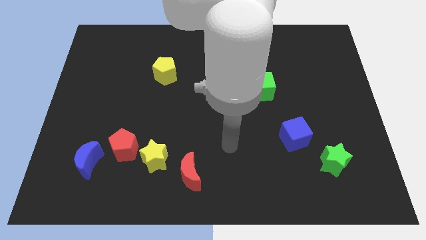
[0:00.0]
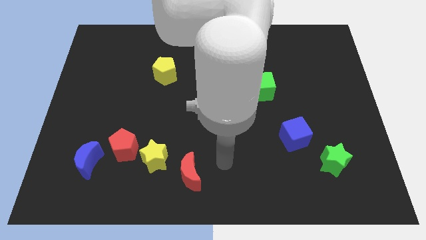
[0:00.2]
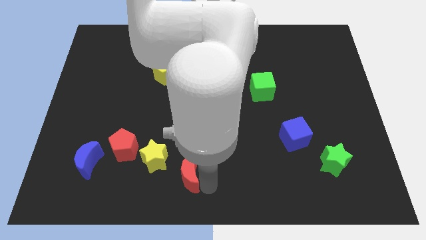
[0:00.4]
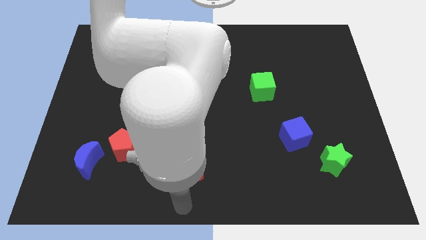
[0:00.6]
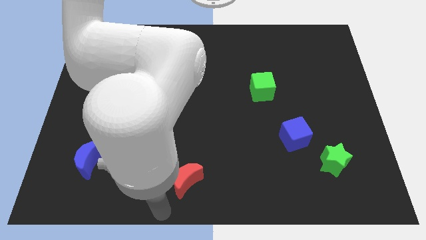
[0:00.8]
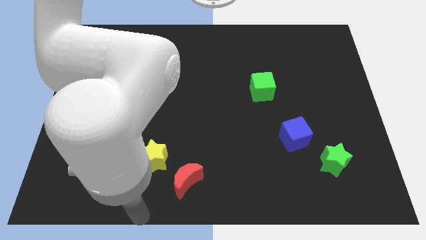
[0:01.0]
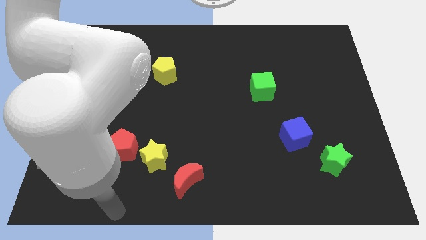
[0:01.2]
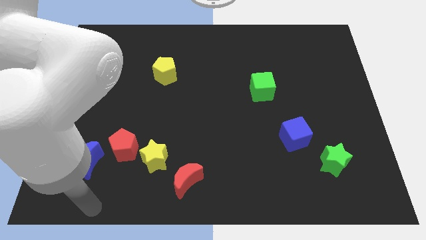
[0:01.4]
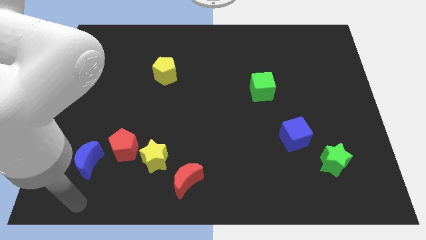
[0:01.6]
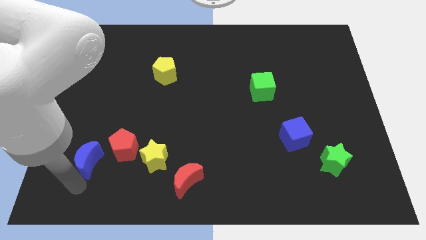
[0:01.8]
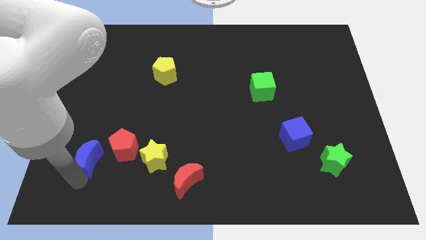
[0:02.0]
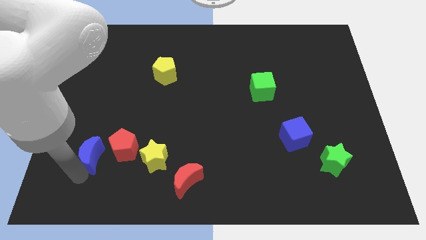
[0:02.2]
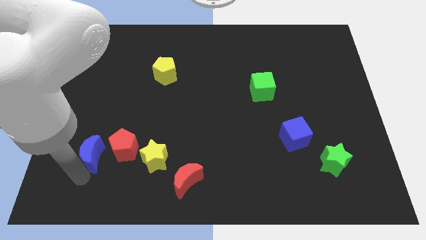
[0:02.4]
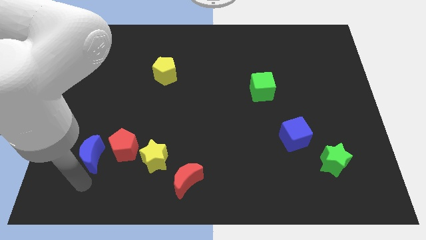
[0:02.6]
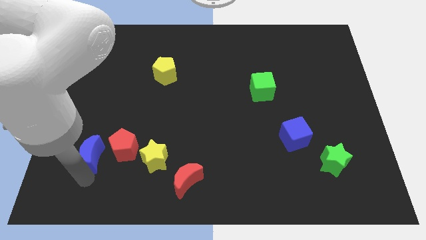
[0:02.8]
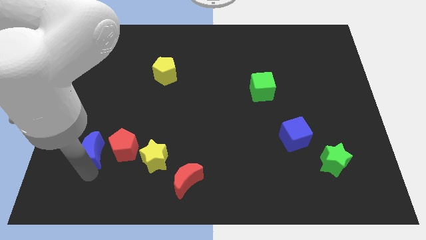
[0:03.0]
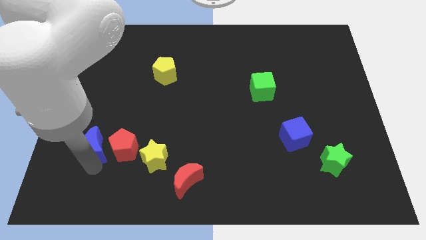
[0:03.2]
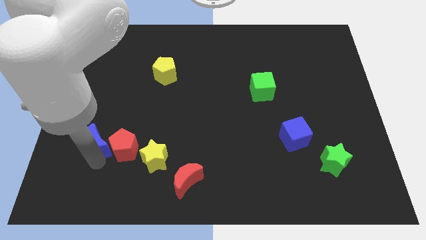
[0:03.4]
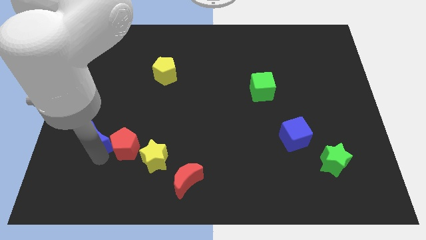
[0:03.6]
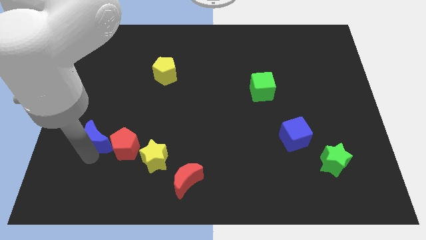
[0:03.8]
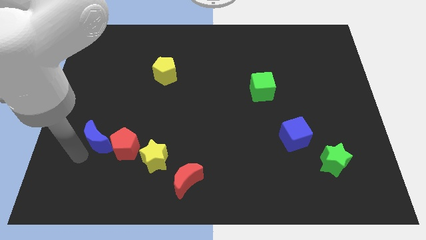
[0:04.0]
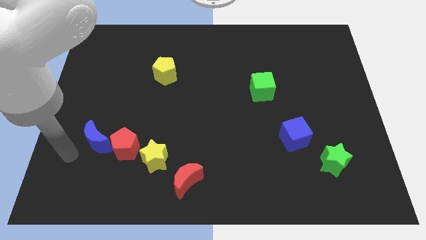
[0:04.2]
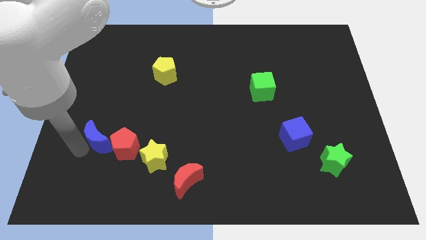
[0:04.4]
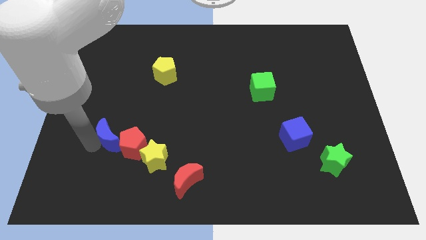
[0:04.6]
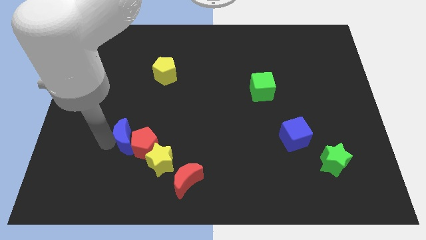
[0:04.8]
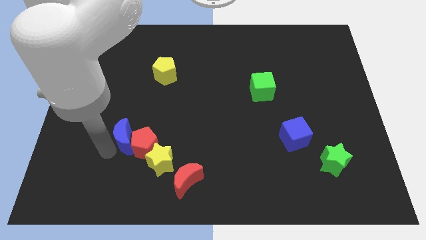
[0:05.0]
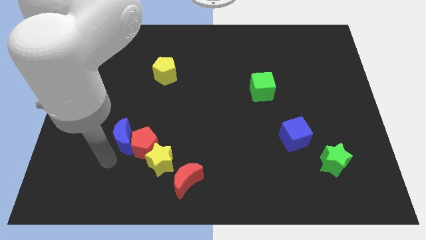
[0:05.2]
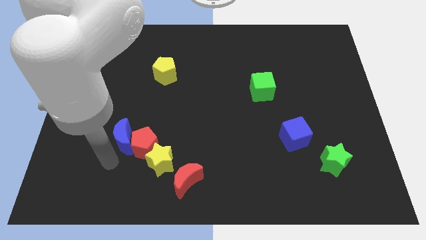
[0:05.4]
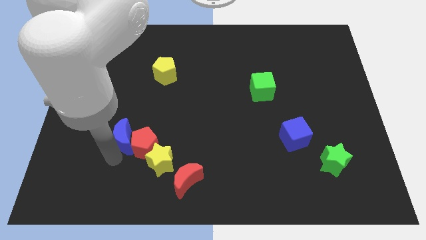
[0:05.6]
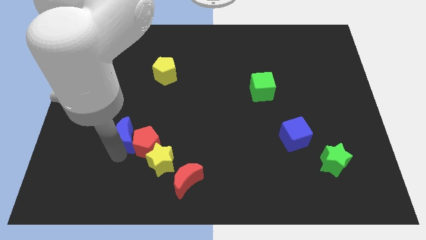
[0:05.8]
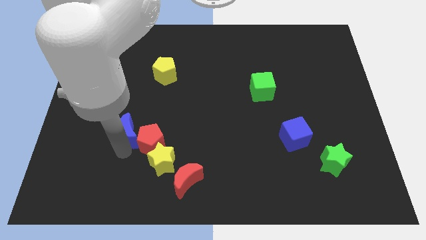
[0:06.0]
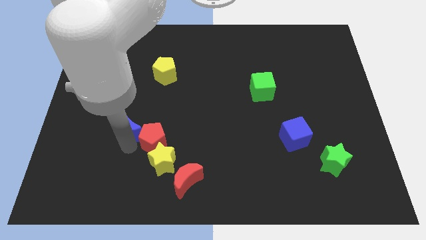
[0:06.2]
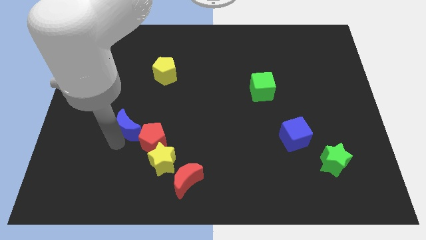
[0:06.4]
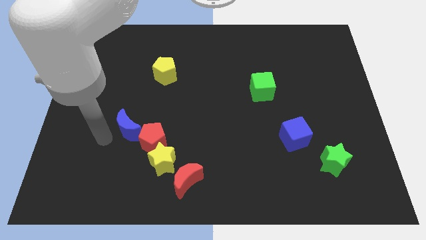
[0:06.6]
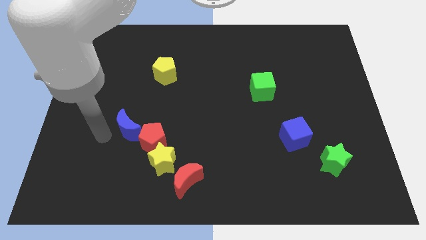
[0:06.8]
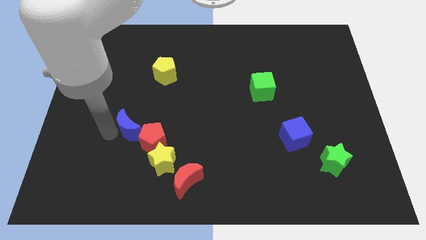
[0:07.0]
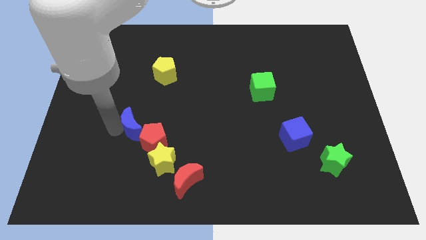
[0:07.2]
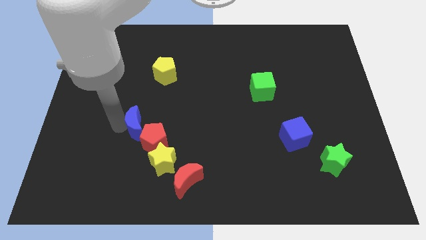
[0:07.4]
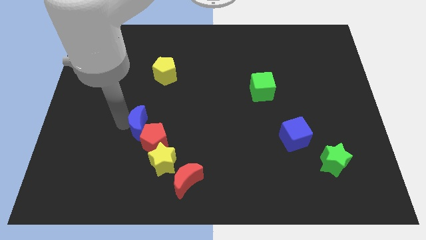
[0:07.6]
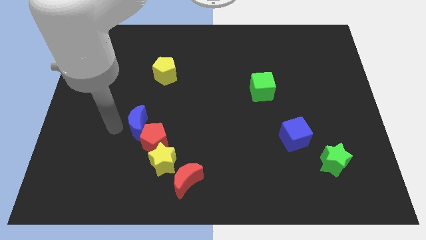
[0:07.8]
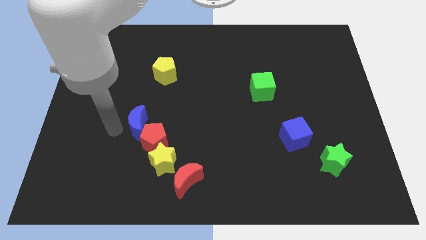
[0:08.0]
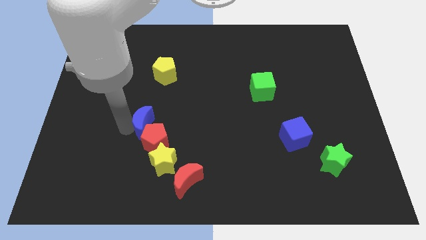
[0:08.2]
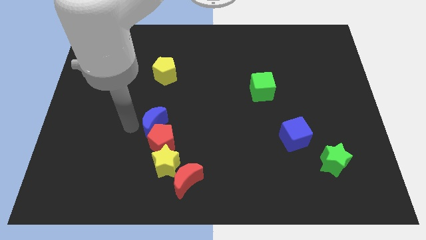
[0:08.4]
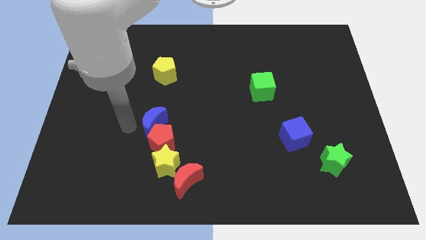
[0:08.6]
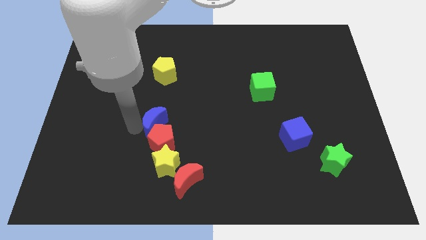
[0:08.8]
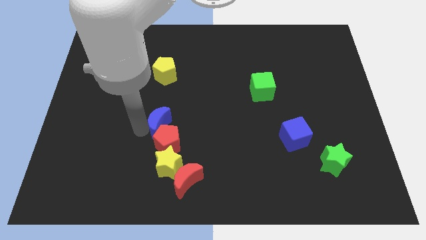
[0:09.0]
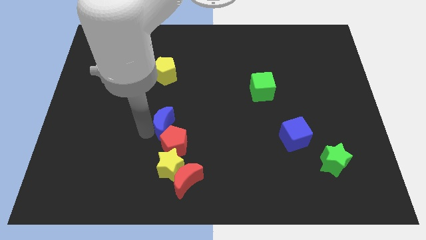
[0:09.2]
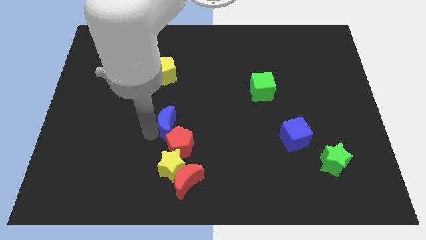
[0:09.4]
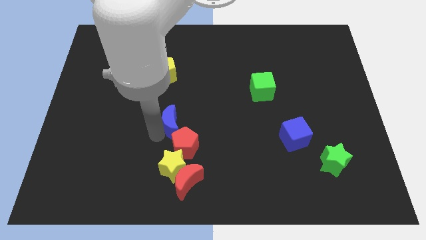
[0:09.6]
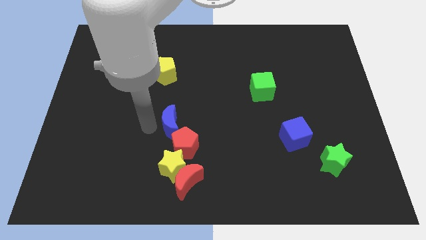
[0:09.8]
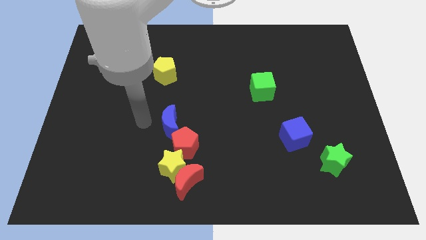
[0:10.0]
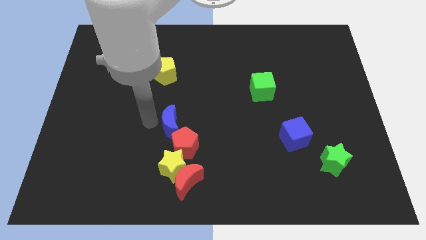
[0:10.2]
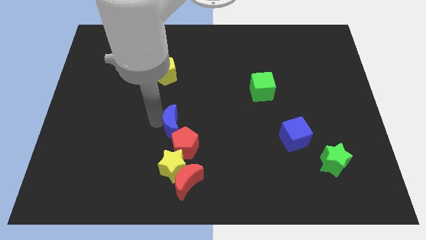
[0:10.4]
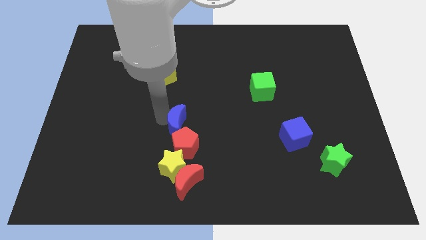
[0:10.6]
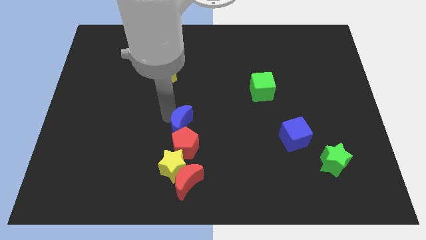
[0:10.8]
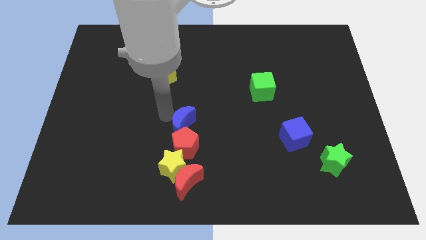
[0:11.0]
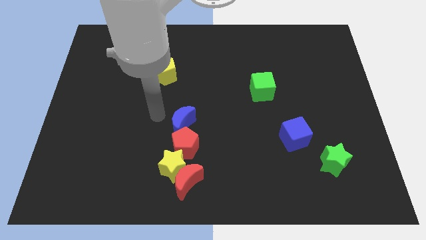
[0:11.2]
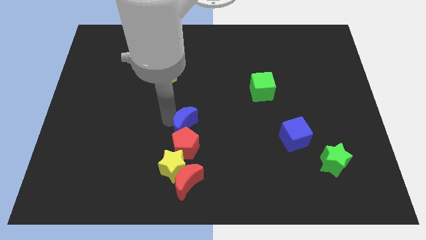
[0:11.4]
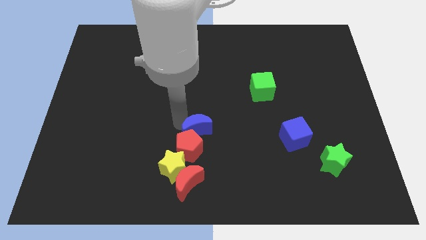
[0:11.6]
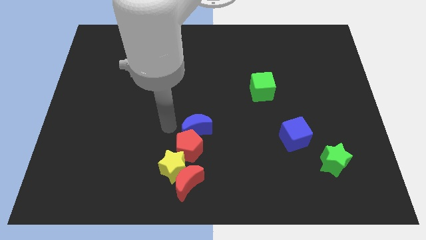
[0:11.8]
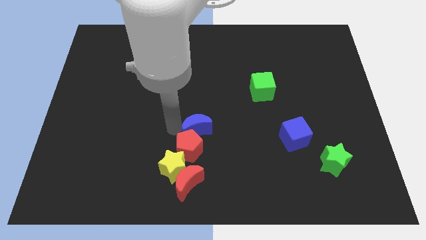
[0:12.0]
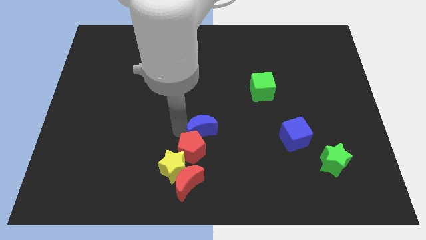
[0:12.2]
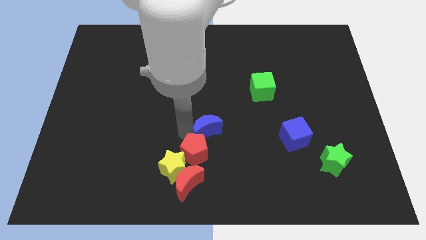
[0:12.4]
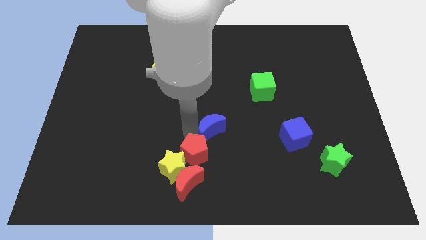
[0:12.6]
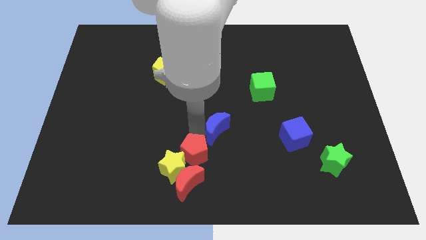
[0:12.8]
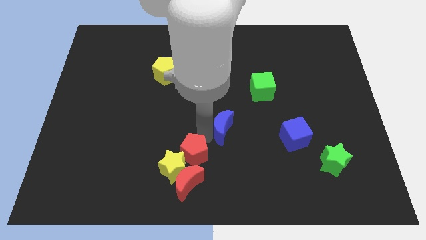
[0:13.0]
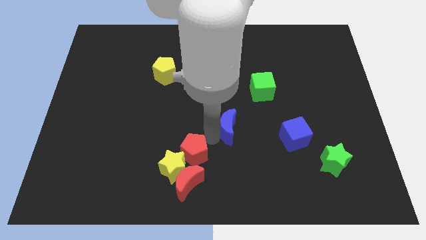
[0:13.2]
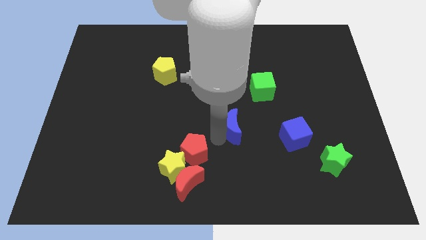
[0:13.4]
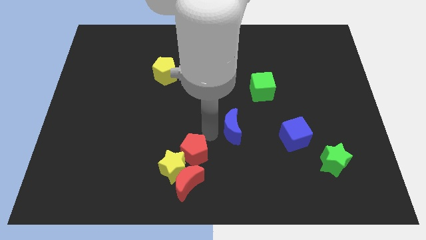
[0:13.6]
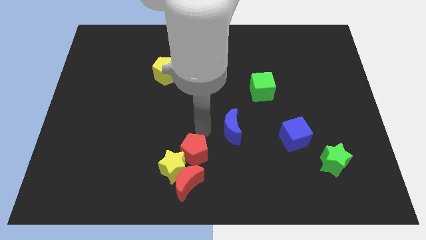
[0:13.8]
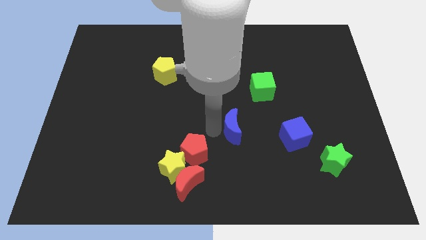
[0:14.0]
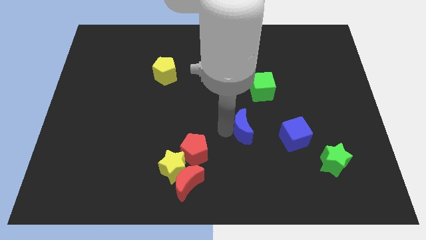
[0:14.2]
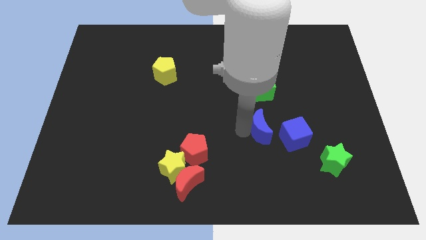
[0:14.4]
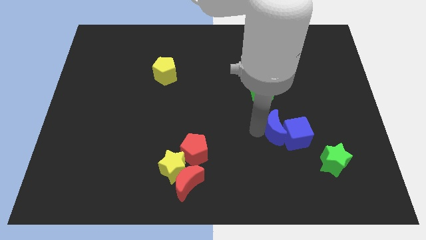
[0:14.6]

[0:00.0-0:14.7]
push the blue moon towards the blue cube
